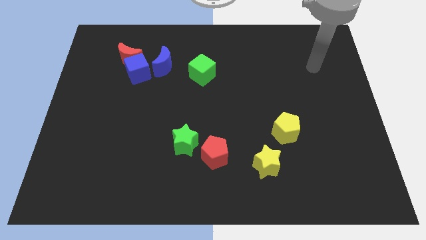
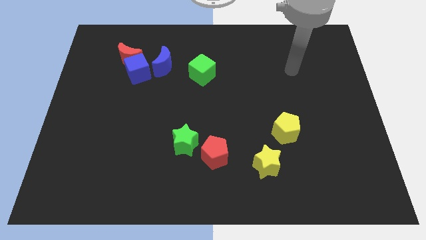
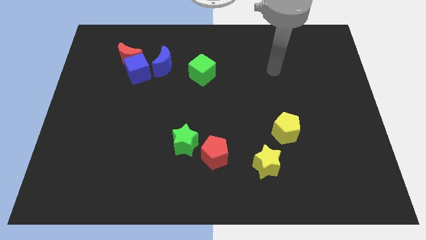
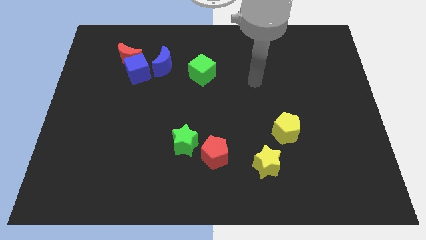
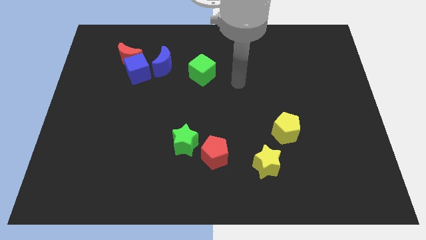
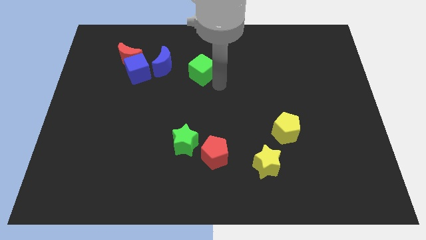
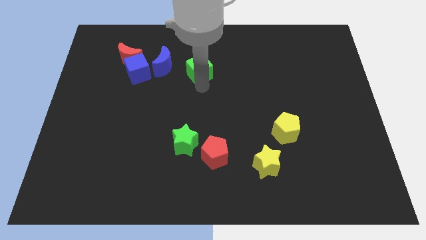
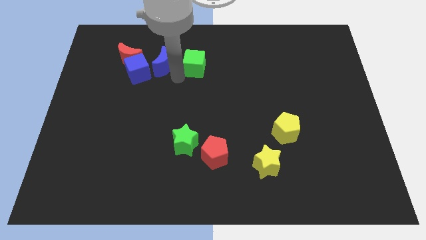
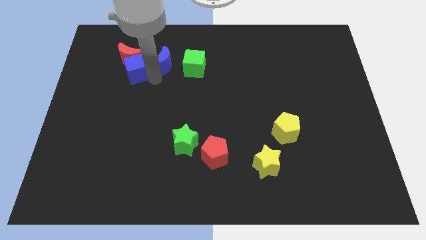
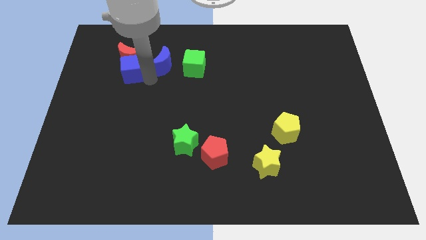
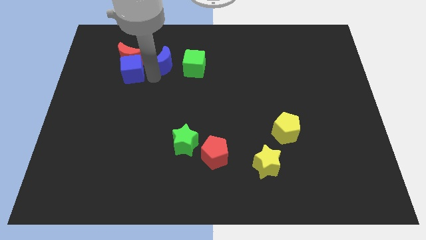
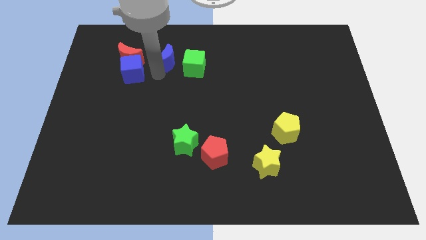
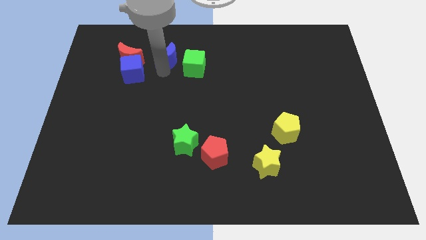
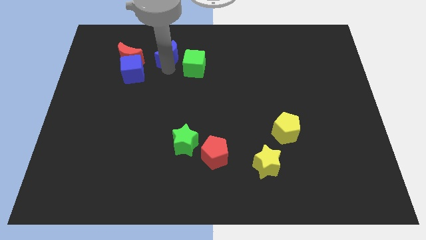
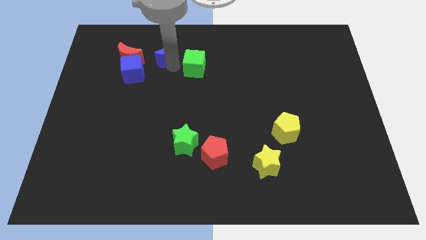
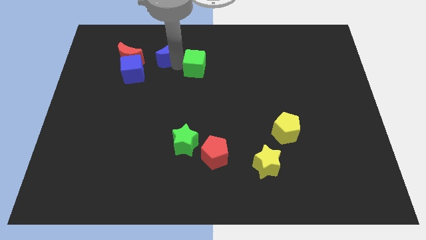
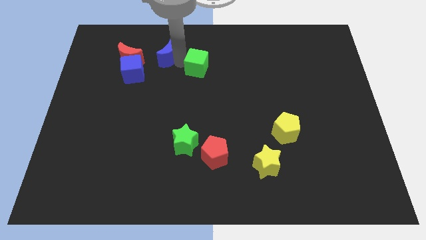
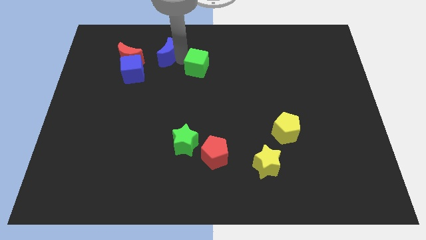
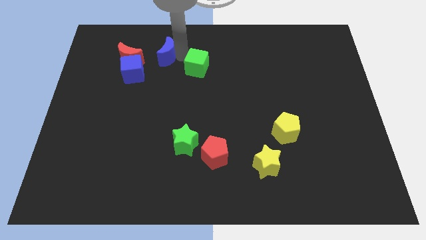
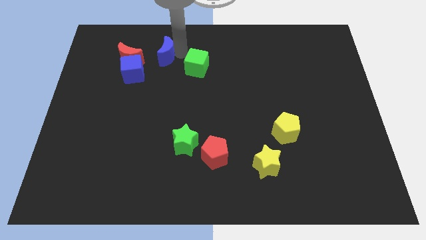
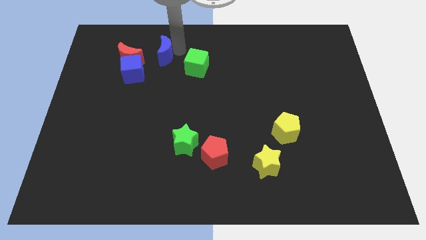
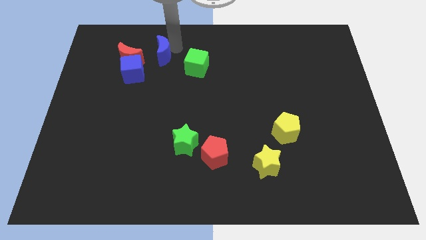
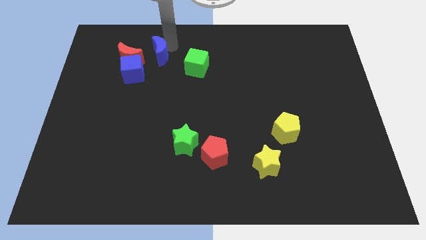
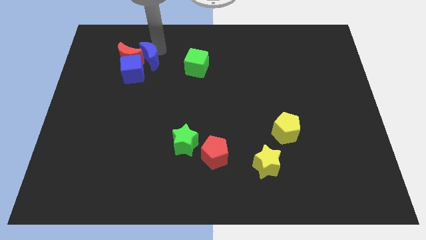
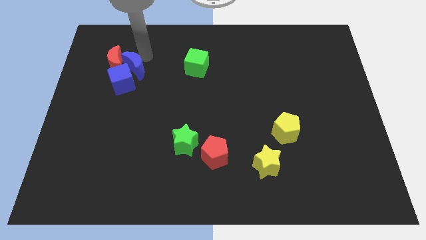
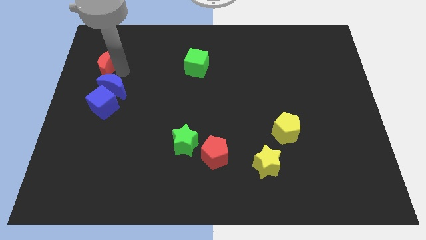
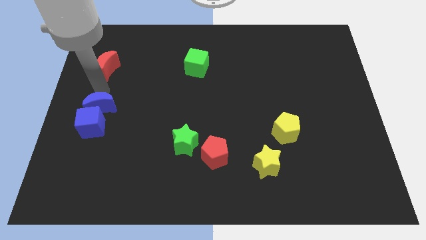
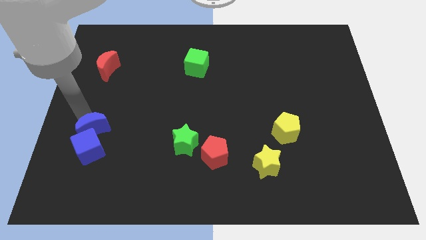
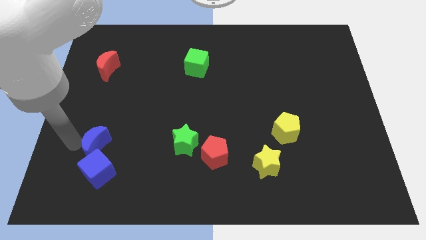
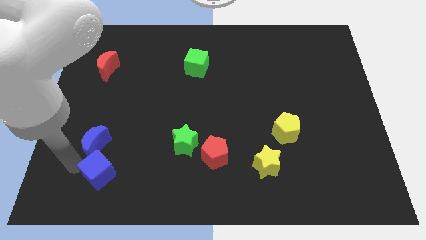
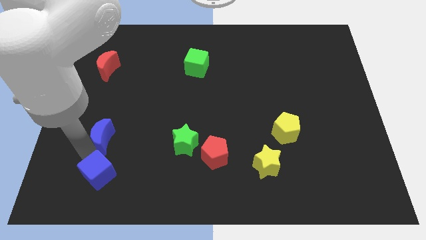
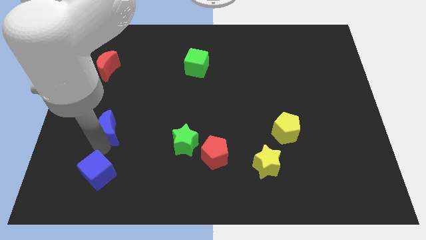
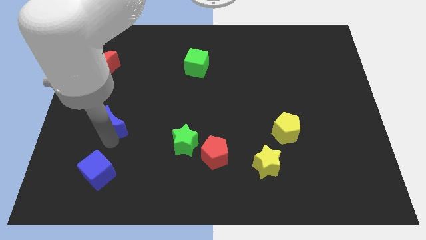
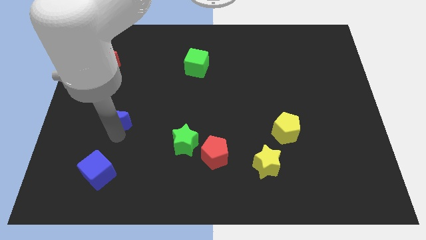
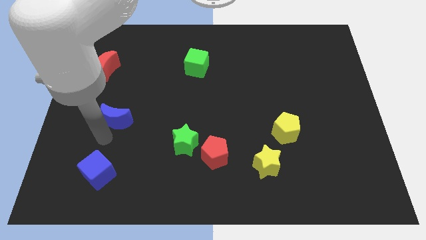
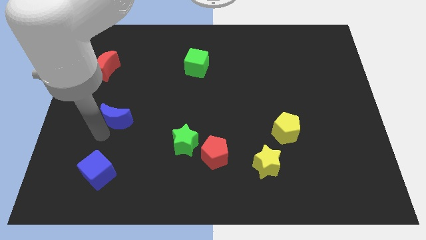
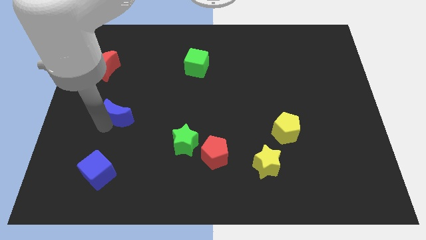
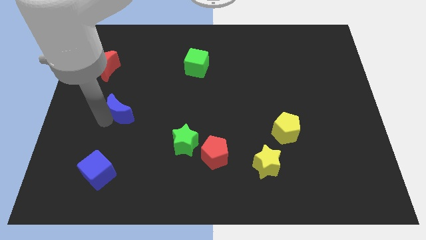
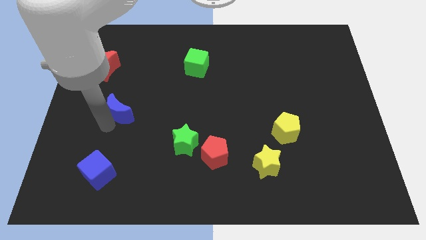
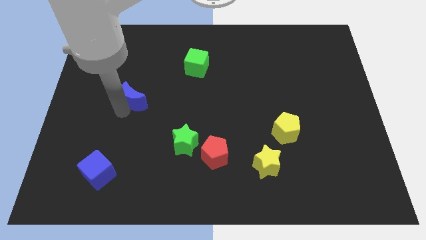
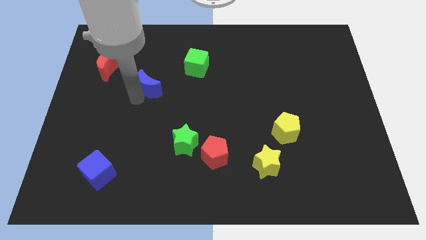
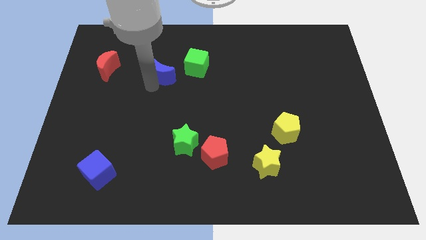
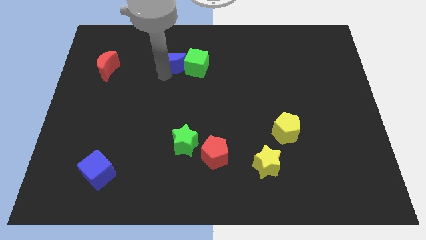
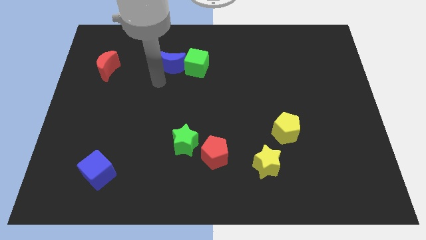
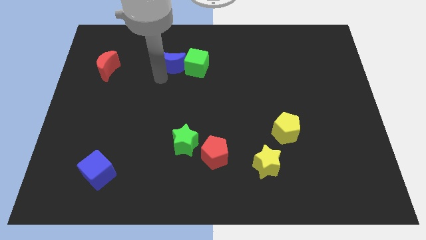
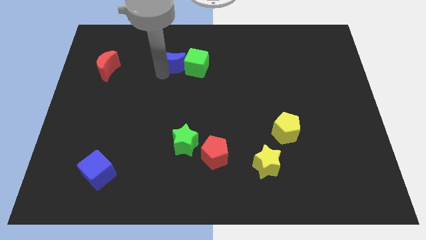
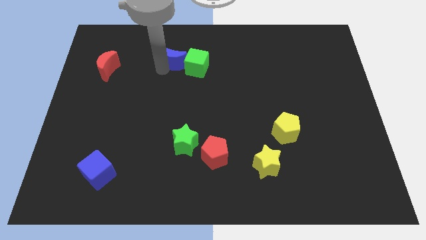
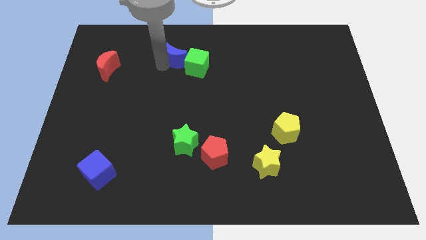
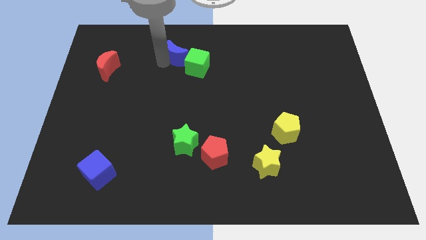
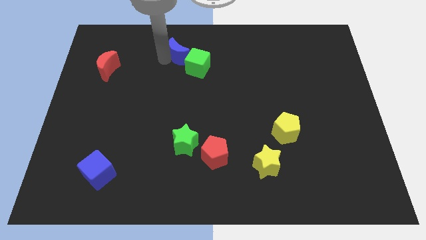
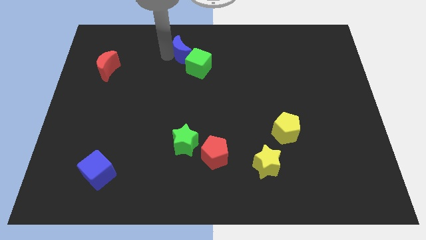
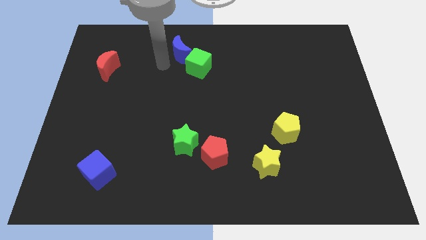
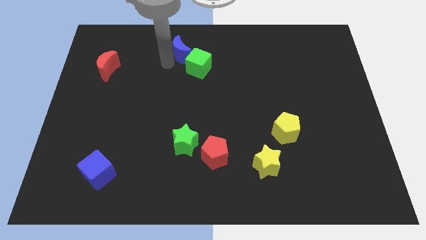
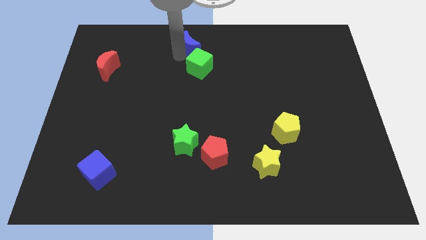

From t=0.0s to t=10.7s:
move the blue moon to the top
